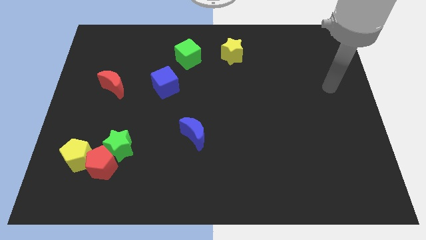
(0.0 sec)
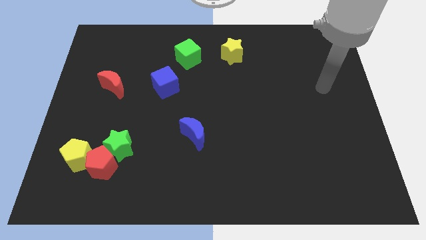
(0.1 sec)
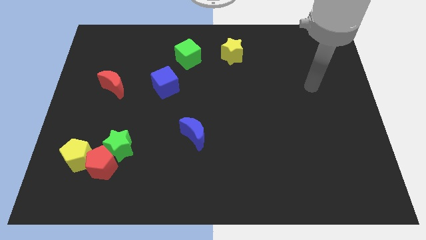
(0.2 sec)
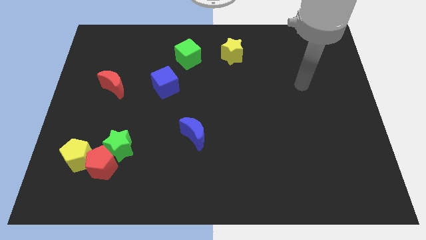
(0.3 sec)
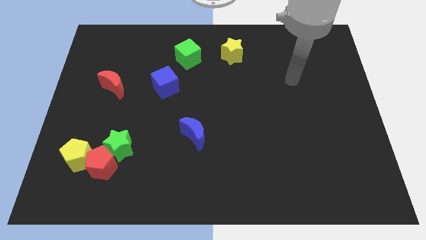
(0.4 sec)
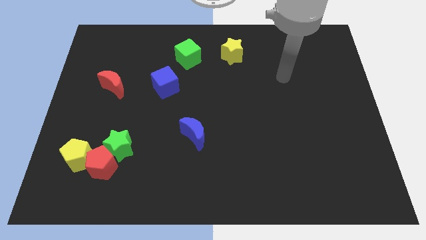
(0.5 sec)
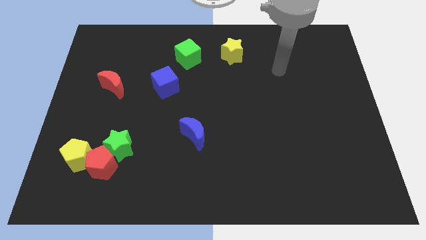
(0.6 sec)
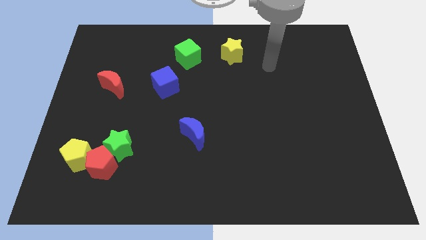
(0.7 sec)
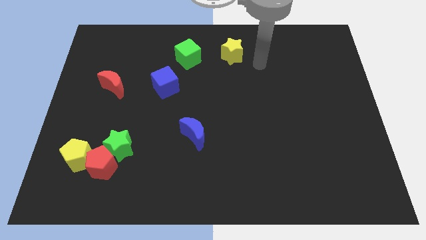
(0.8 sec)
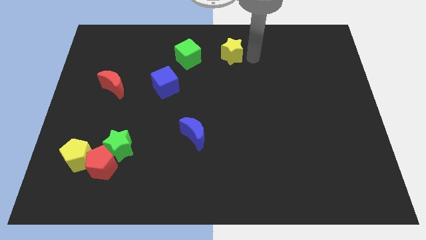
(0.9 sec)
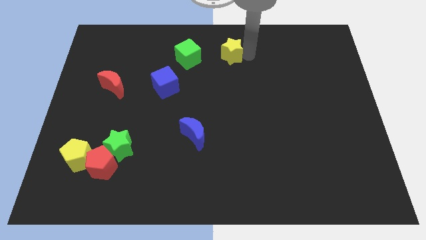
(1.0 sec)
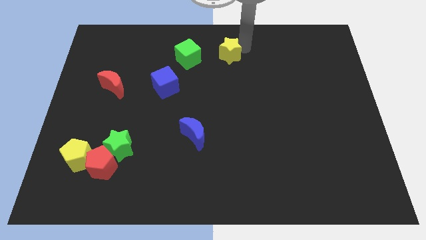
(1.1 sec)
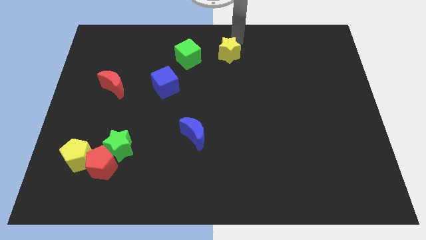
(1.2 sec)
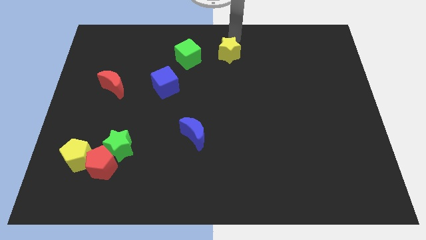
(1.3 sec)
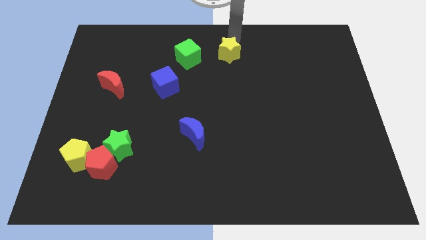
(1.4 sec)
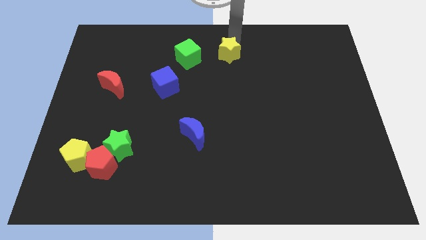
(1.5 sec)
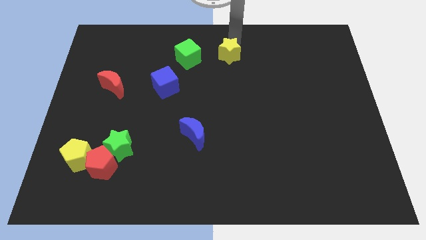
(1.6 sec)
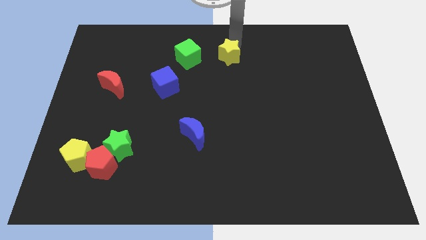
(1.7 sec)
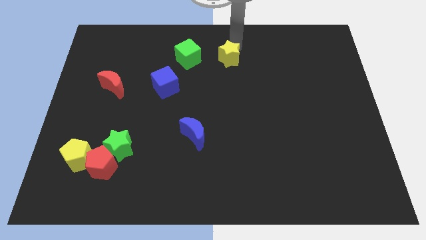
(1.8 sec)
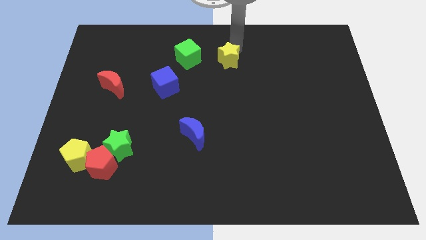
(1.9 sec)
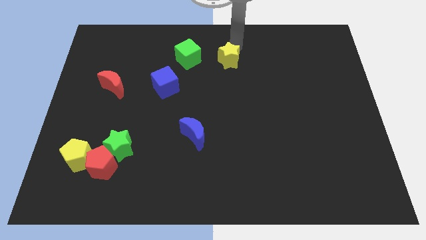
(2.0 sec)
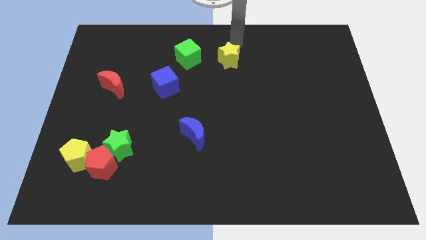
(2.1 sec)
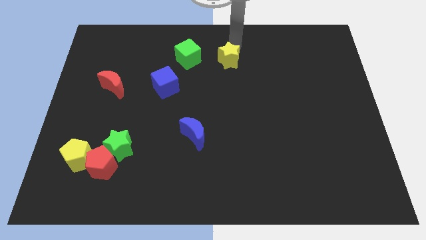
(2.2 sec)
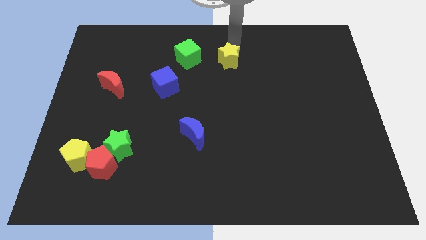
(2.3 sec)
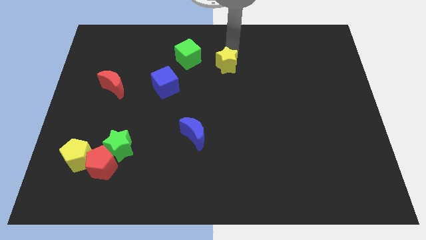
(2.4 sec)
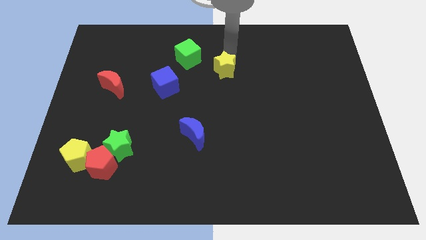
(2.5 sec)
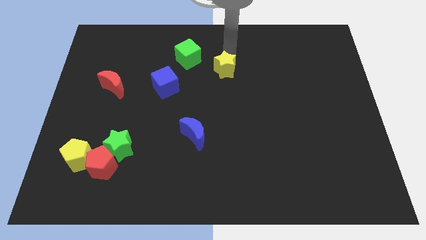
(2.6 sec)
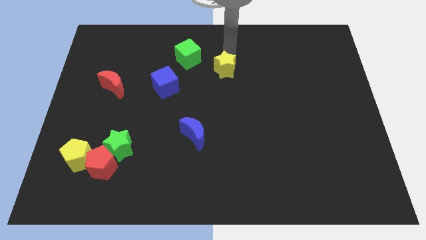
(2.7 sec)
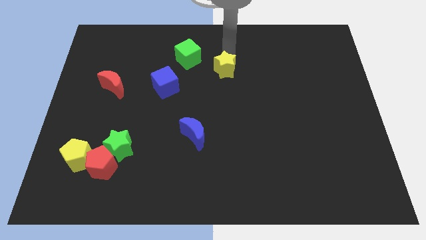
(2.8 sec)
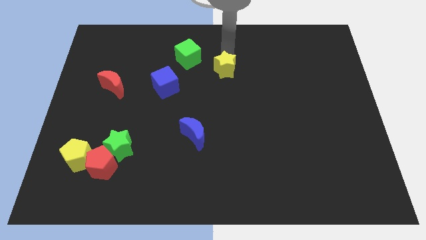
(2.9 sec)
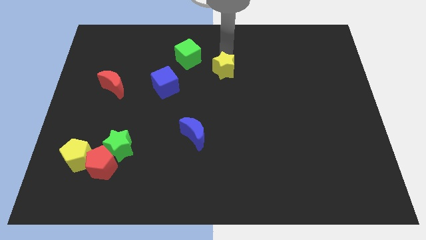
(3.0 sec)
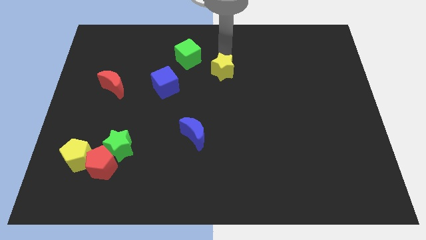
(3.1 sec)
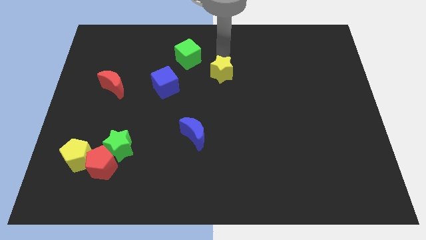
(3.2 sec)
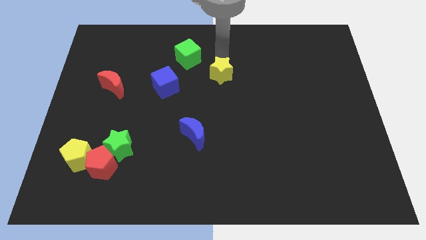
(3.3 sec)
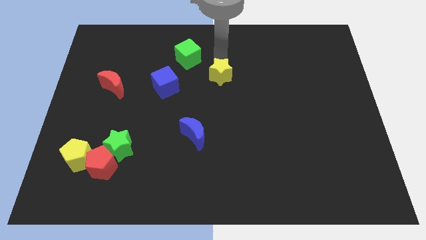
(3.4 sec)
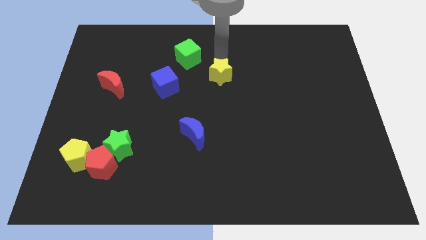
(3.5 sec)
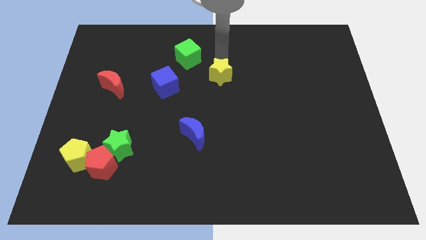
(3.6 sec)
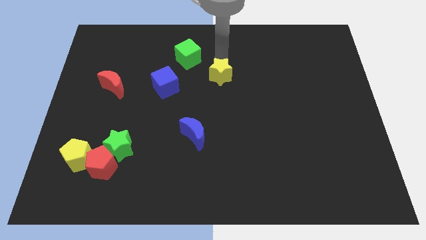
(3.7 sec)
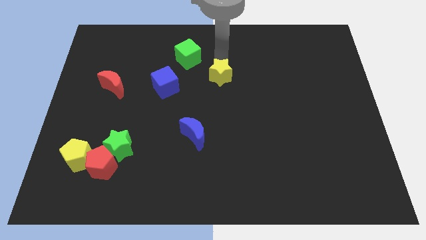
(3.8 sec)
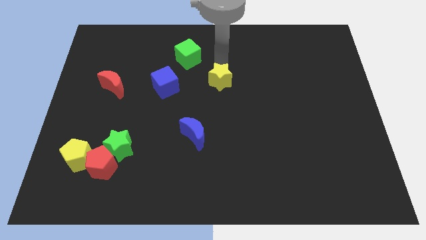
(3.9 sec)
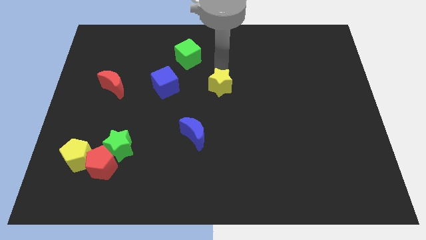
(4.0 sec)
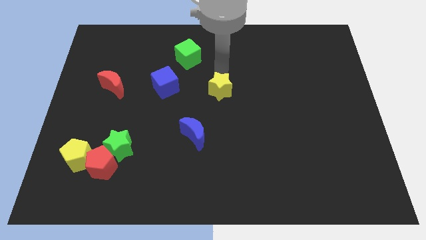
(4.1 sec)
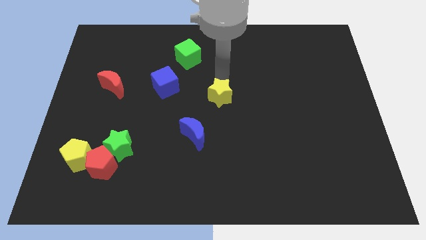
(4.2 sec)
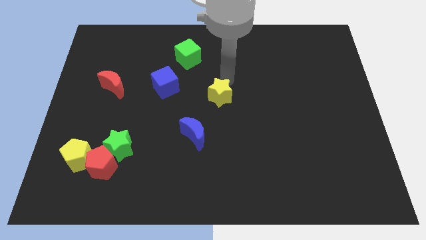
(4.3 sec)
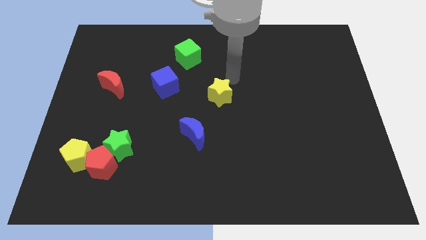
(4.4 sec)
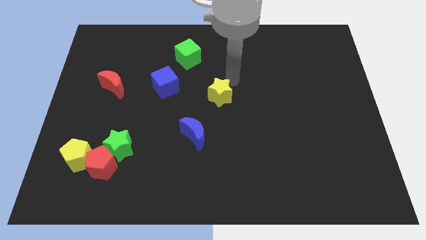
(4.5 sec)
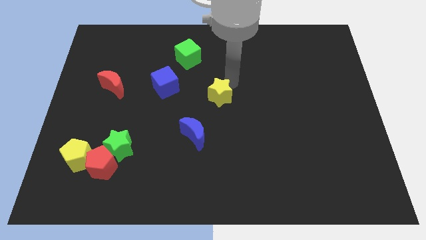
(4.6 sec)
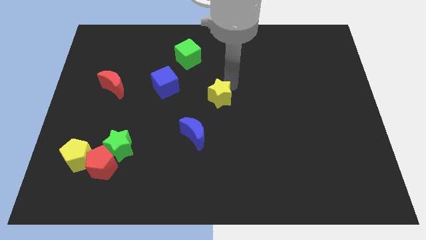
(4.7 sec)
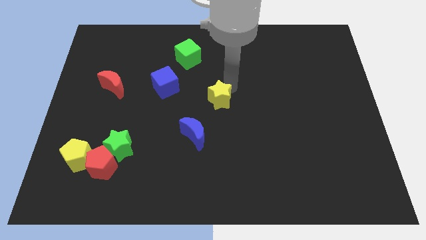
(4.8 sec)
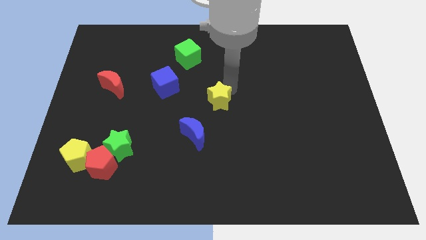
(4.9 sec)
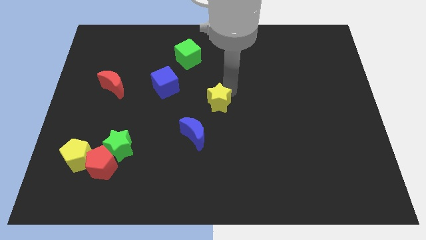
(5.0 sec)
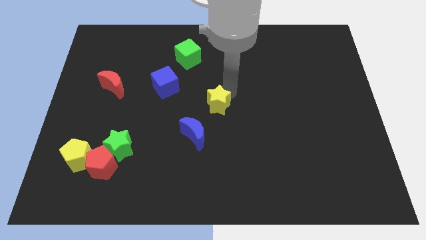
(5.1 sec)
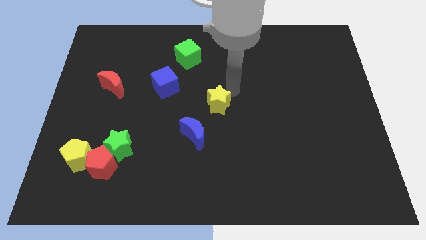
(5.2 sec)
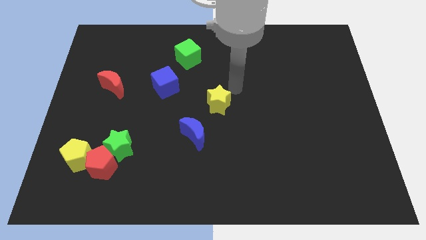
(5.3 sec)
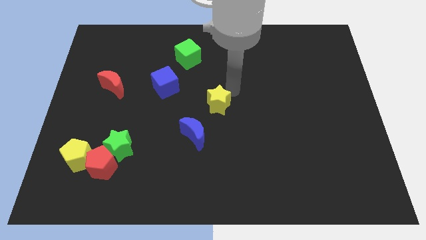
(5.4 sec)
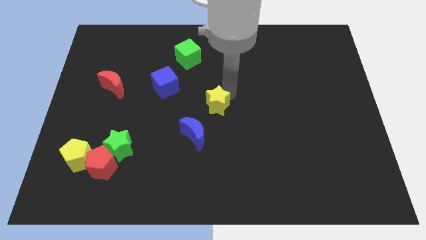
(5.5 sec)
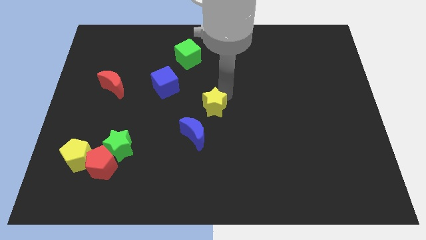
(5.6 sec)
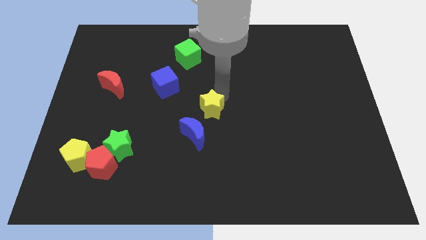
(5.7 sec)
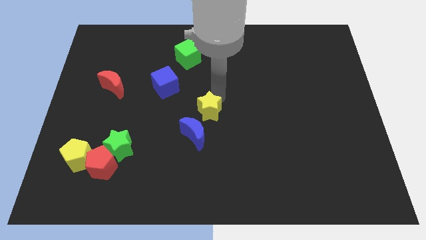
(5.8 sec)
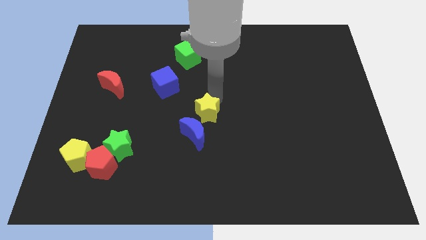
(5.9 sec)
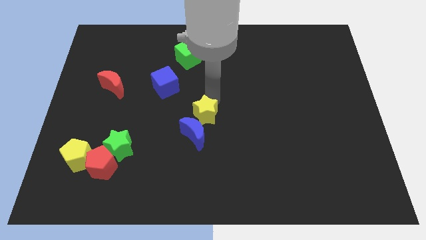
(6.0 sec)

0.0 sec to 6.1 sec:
move the yellow star close to the blue moon

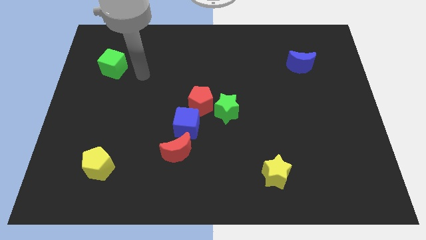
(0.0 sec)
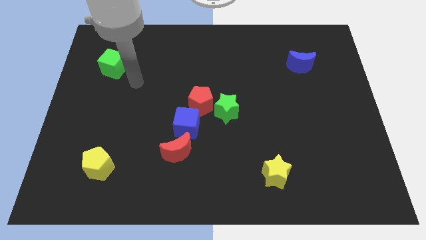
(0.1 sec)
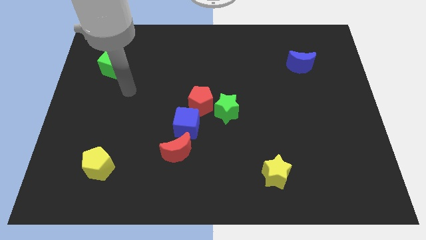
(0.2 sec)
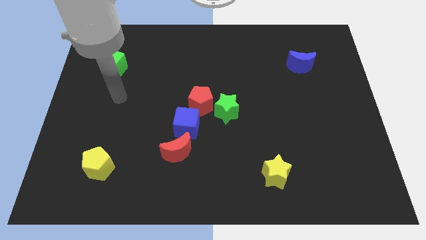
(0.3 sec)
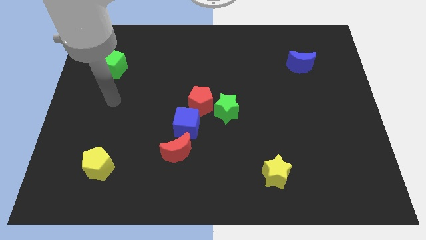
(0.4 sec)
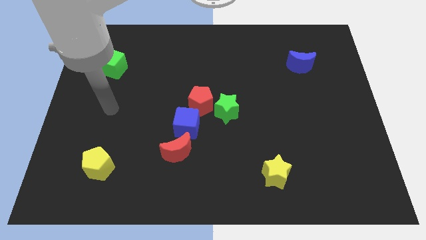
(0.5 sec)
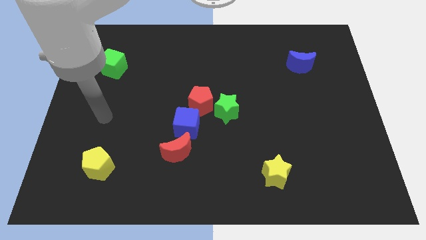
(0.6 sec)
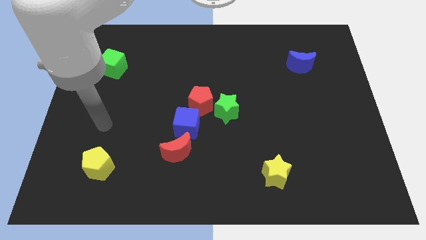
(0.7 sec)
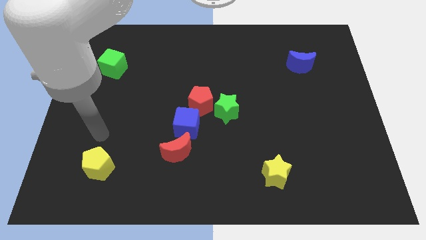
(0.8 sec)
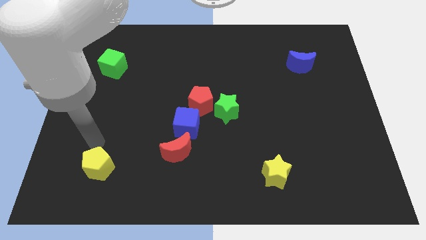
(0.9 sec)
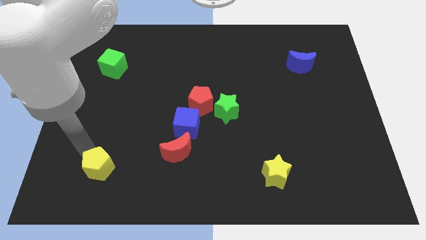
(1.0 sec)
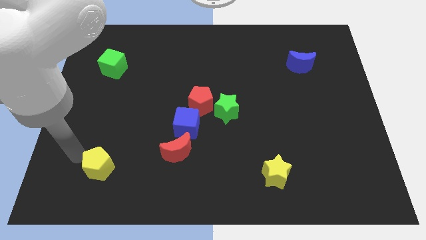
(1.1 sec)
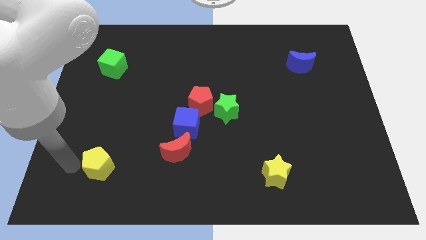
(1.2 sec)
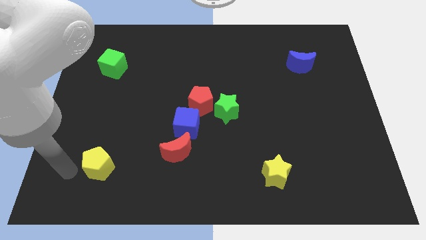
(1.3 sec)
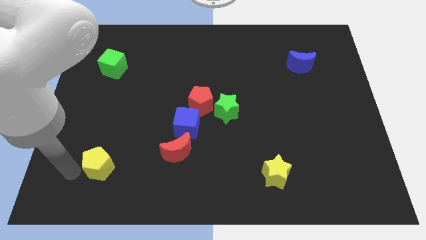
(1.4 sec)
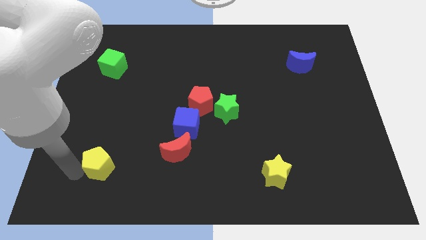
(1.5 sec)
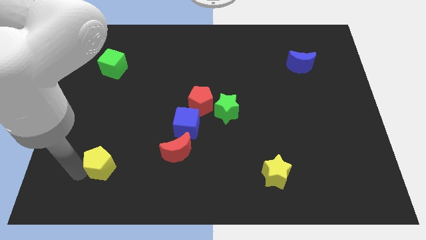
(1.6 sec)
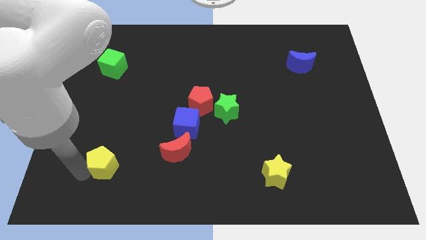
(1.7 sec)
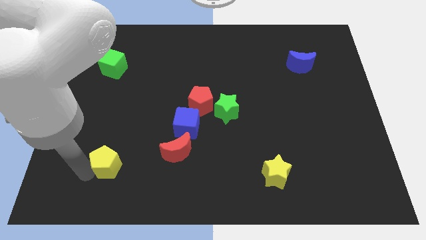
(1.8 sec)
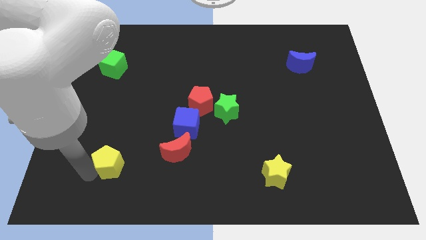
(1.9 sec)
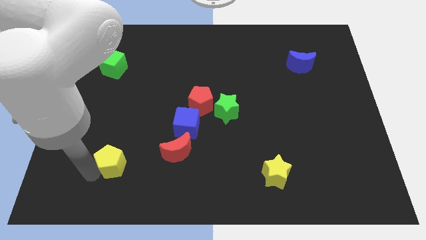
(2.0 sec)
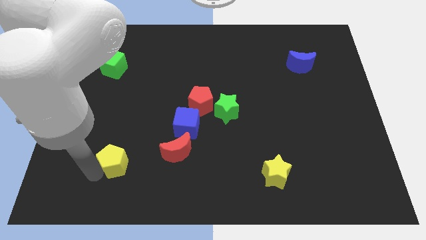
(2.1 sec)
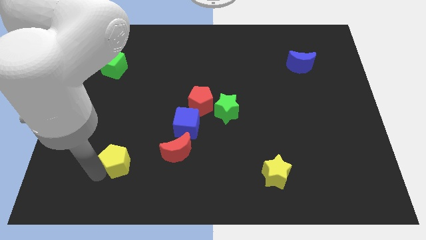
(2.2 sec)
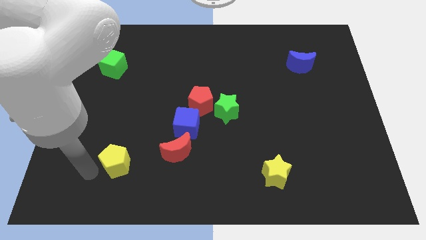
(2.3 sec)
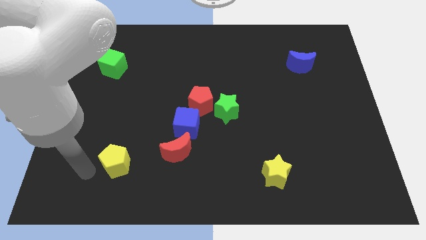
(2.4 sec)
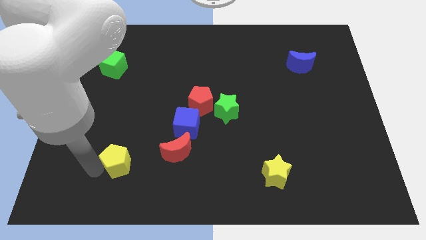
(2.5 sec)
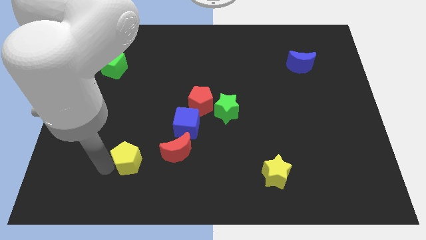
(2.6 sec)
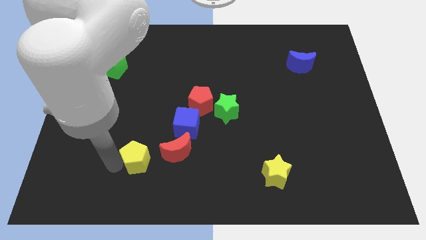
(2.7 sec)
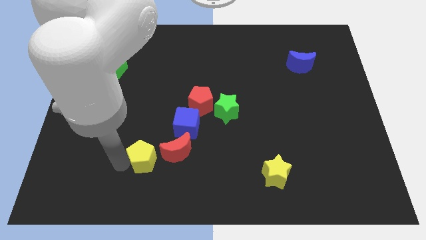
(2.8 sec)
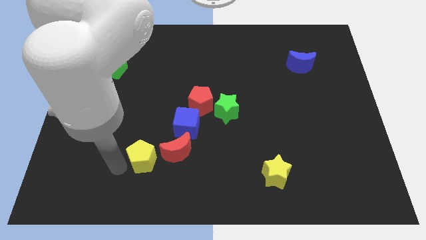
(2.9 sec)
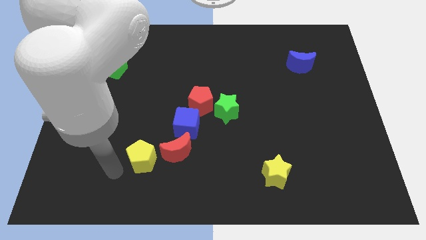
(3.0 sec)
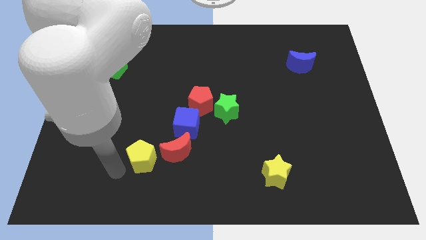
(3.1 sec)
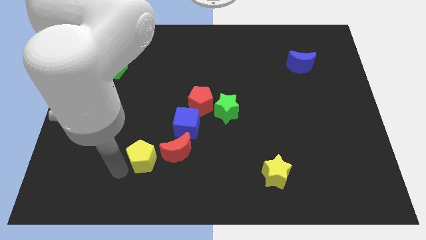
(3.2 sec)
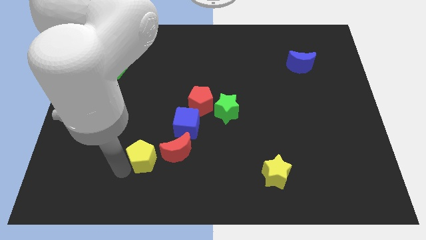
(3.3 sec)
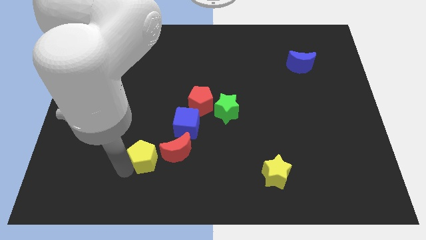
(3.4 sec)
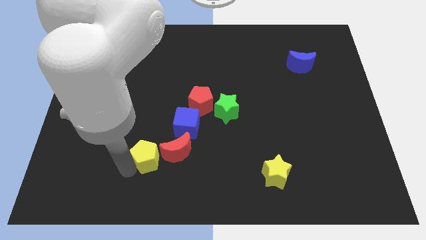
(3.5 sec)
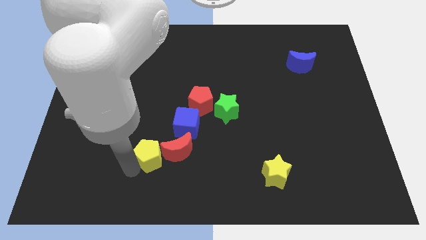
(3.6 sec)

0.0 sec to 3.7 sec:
push the yellow pentagon next to the red moon
